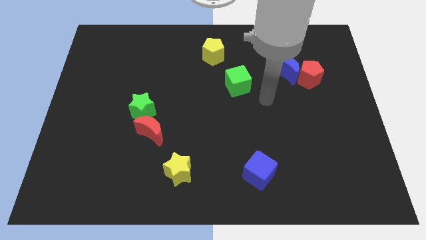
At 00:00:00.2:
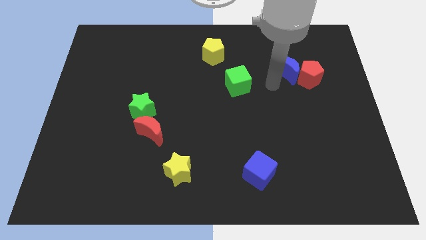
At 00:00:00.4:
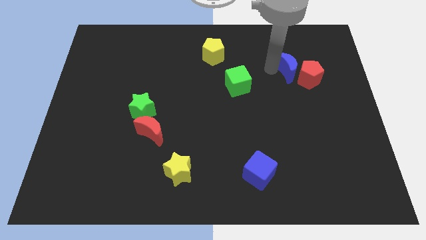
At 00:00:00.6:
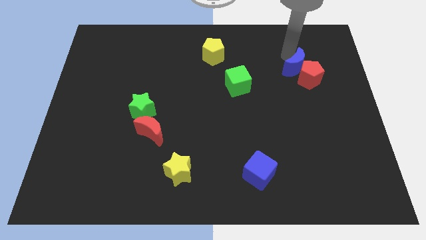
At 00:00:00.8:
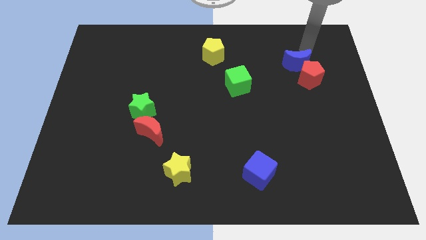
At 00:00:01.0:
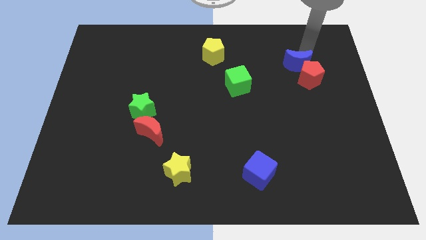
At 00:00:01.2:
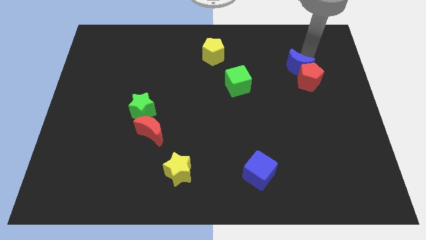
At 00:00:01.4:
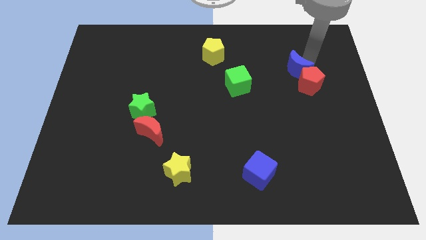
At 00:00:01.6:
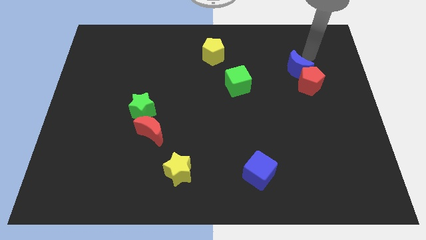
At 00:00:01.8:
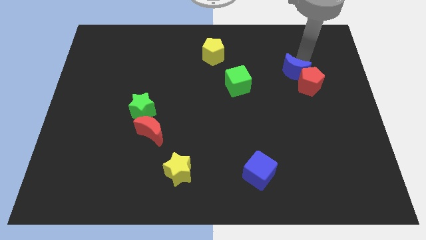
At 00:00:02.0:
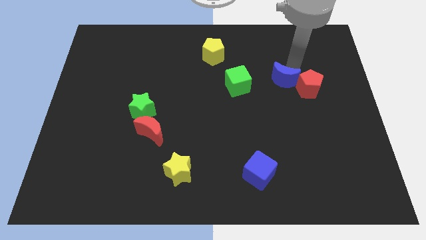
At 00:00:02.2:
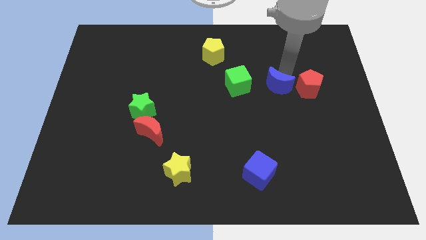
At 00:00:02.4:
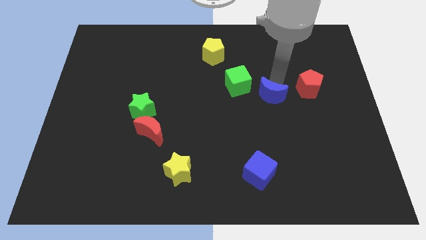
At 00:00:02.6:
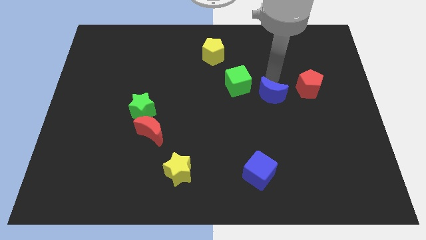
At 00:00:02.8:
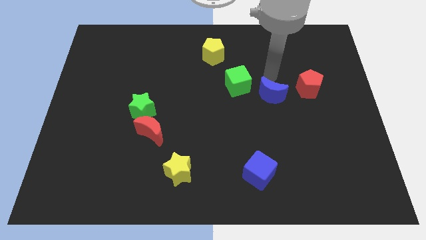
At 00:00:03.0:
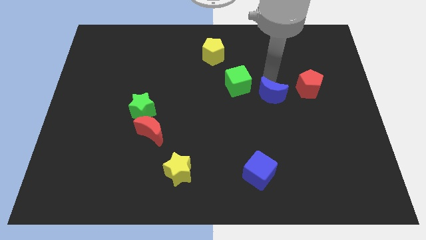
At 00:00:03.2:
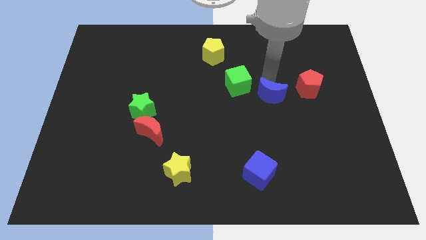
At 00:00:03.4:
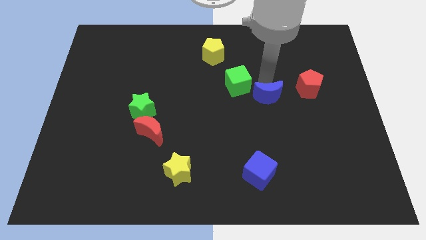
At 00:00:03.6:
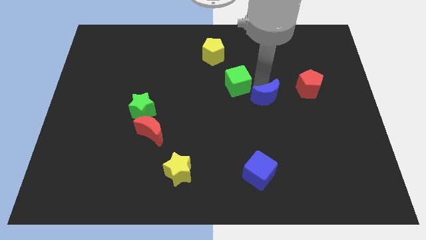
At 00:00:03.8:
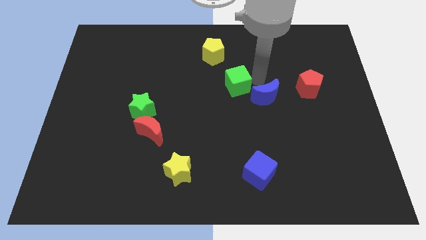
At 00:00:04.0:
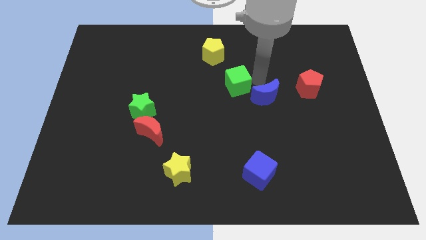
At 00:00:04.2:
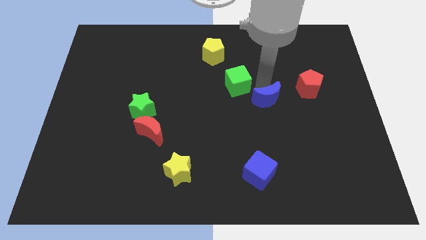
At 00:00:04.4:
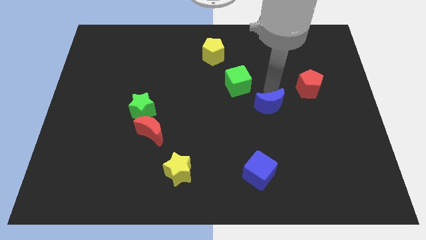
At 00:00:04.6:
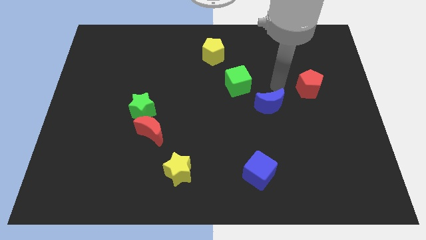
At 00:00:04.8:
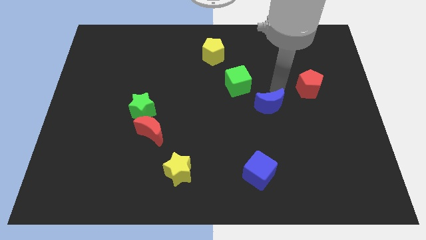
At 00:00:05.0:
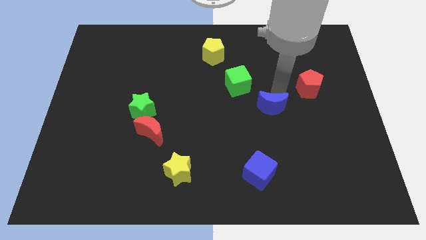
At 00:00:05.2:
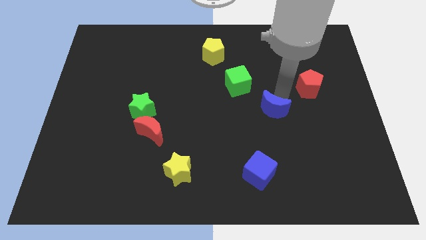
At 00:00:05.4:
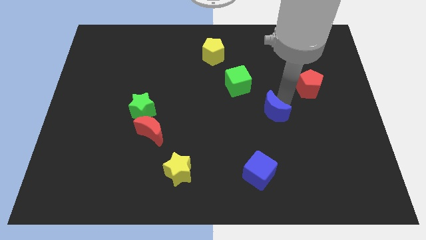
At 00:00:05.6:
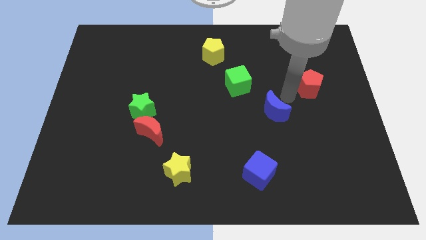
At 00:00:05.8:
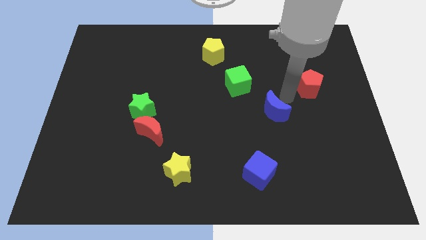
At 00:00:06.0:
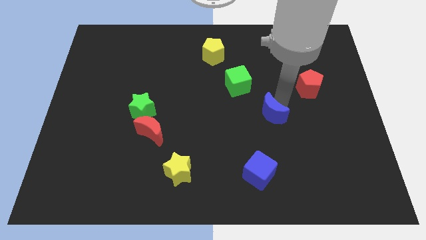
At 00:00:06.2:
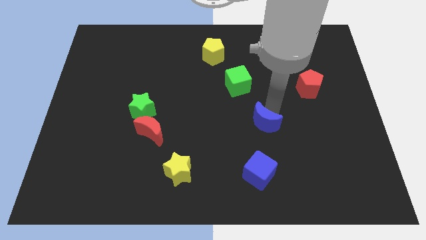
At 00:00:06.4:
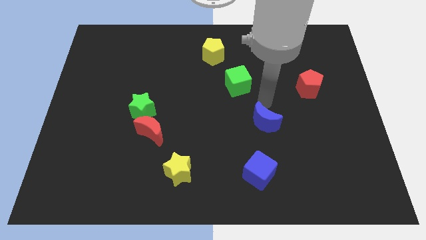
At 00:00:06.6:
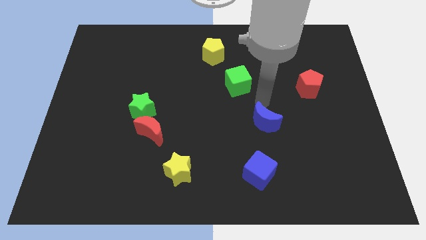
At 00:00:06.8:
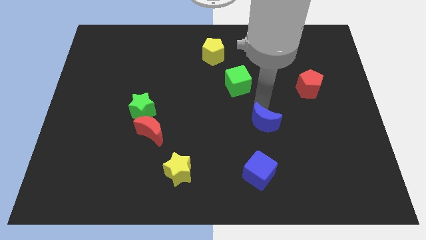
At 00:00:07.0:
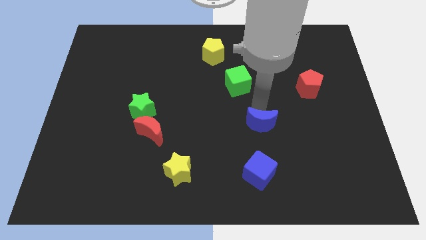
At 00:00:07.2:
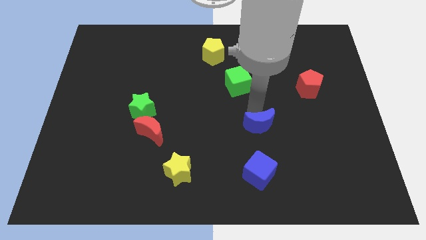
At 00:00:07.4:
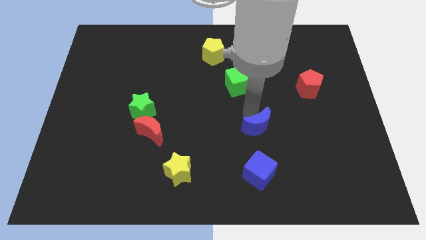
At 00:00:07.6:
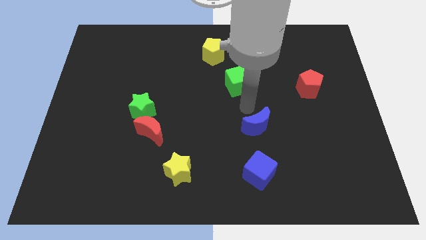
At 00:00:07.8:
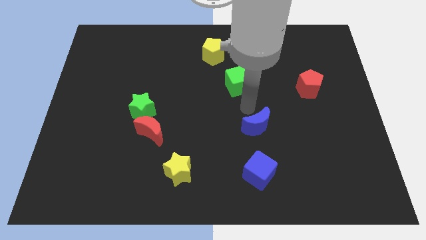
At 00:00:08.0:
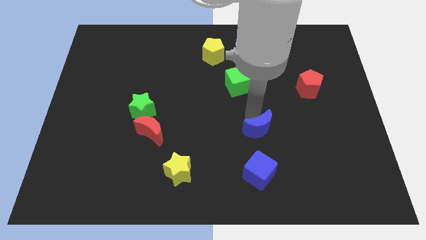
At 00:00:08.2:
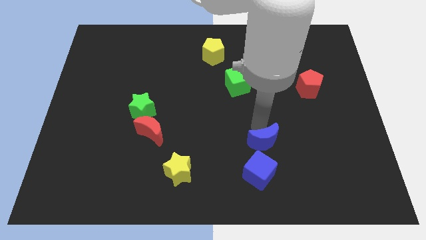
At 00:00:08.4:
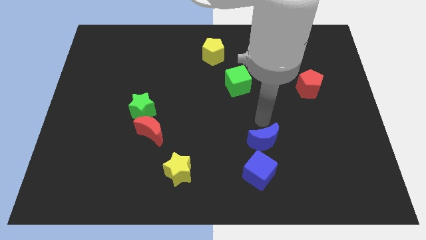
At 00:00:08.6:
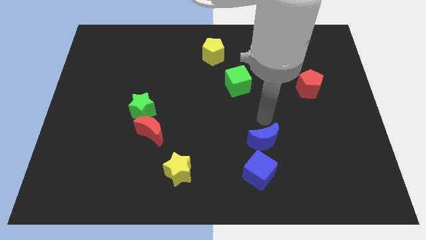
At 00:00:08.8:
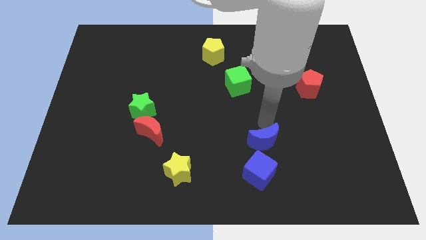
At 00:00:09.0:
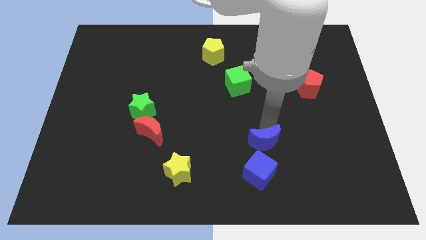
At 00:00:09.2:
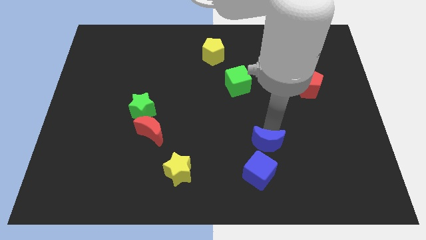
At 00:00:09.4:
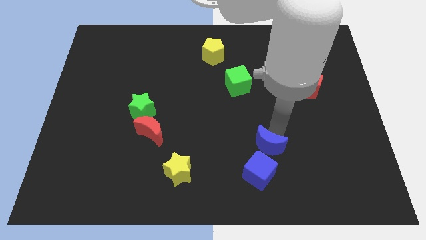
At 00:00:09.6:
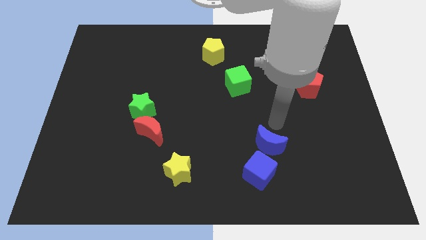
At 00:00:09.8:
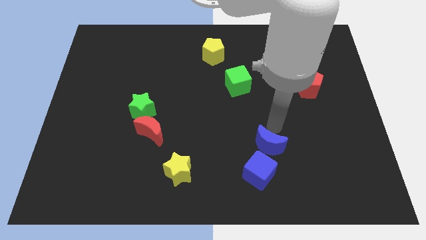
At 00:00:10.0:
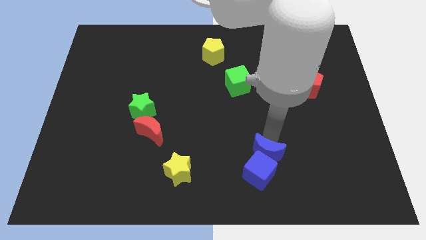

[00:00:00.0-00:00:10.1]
move the blue moon to the blue cube

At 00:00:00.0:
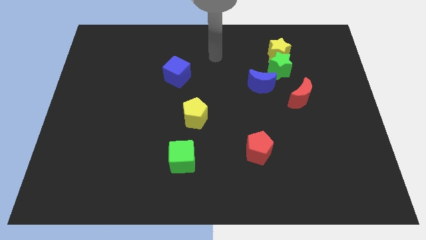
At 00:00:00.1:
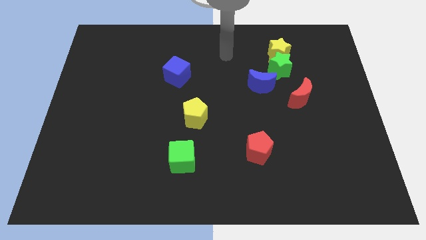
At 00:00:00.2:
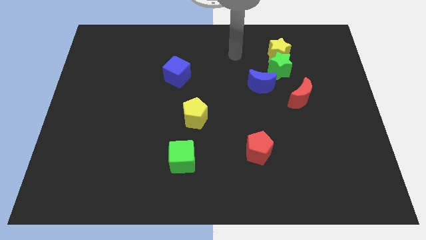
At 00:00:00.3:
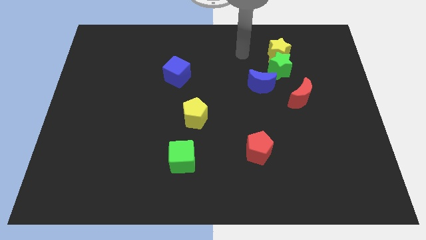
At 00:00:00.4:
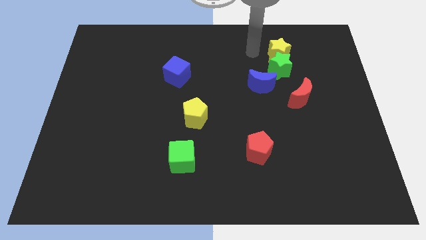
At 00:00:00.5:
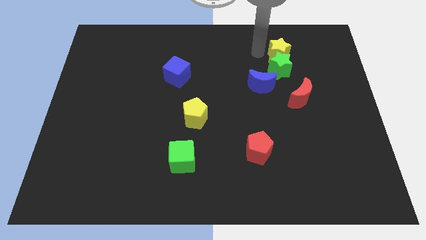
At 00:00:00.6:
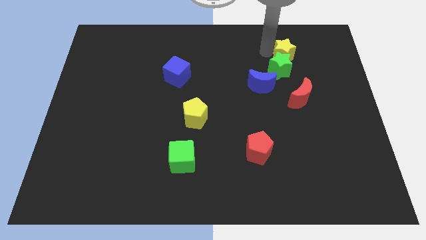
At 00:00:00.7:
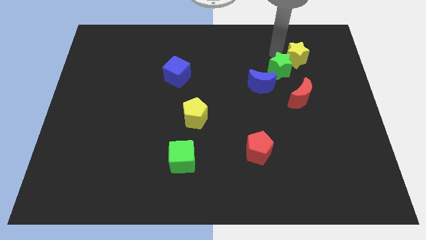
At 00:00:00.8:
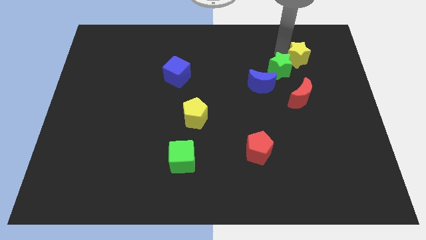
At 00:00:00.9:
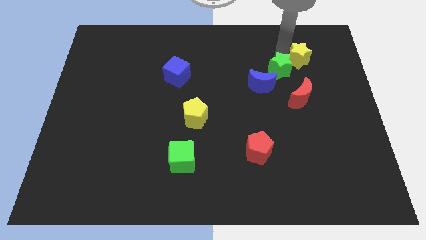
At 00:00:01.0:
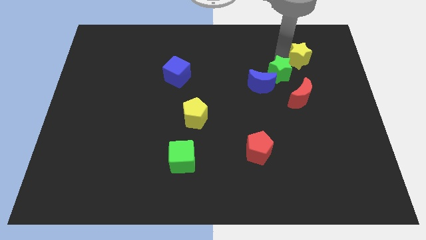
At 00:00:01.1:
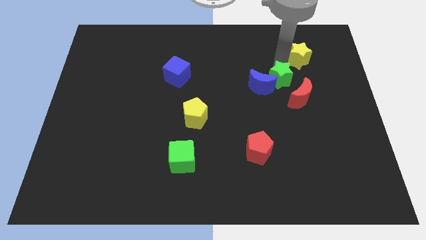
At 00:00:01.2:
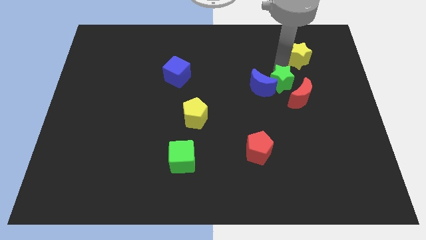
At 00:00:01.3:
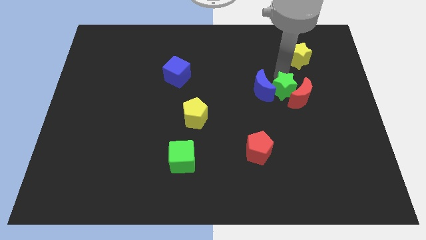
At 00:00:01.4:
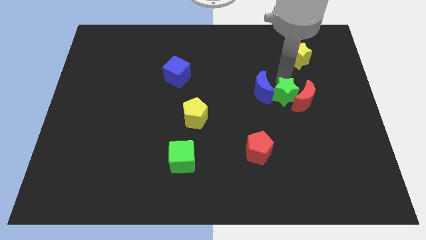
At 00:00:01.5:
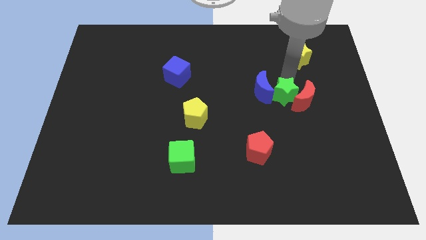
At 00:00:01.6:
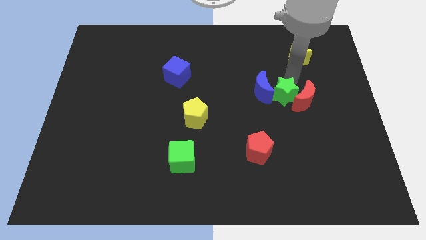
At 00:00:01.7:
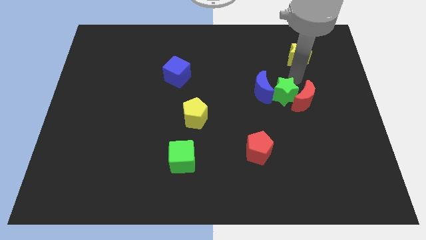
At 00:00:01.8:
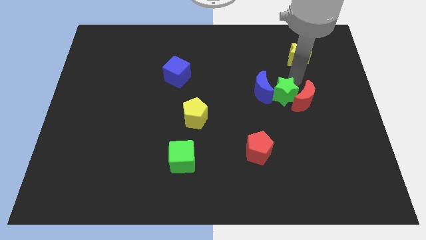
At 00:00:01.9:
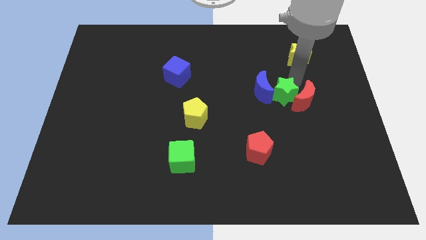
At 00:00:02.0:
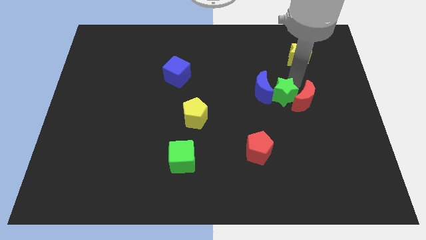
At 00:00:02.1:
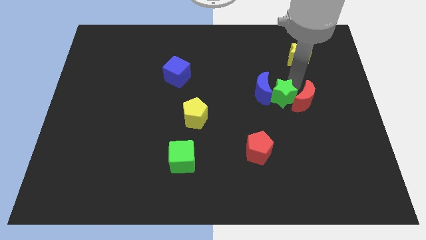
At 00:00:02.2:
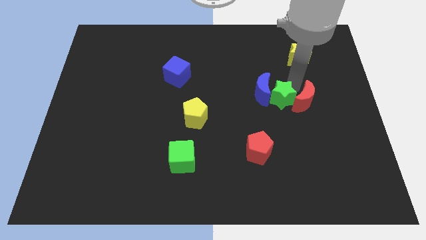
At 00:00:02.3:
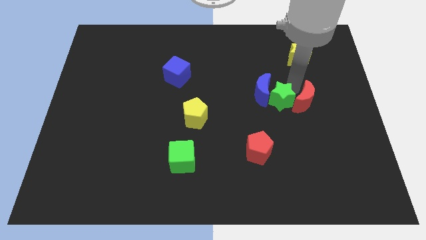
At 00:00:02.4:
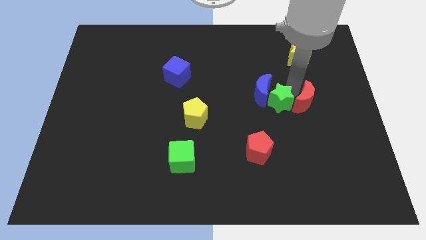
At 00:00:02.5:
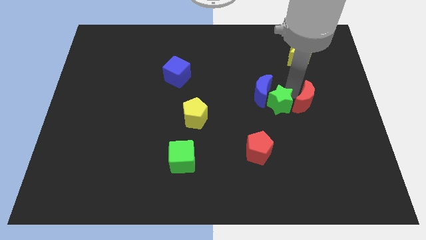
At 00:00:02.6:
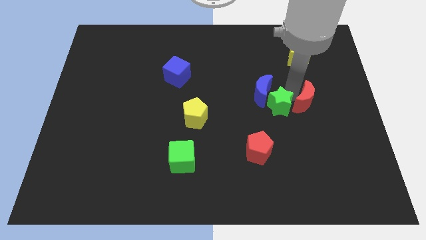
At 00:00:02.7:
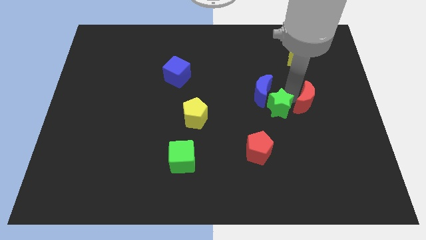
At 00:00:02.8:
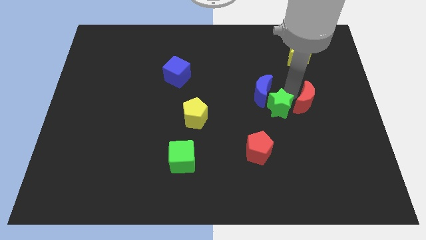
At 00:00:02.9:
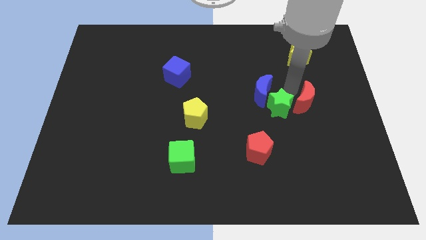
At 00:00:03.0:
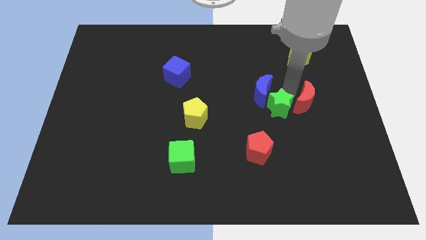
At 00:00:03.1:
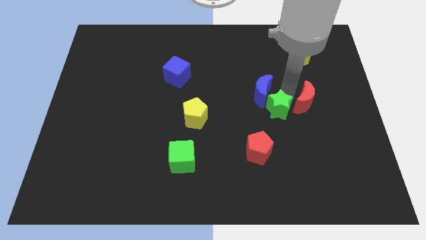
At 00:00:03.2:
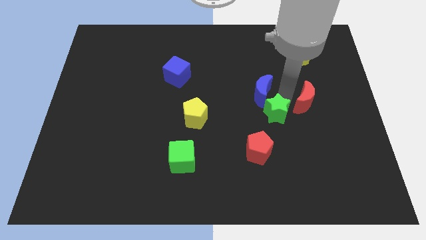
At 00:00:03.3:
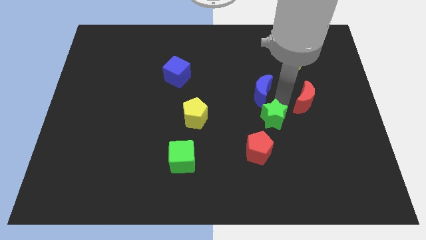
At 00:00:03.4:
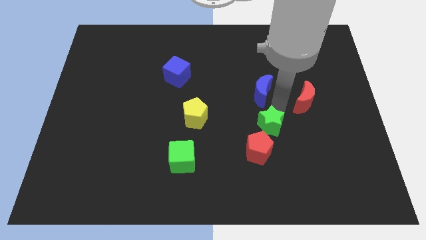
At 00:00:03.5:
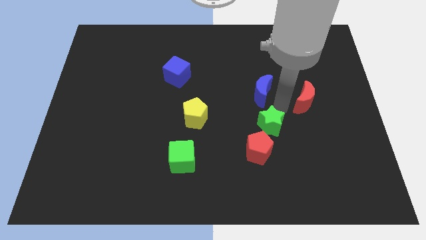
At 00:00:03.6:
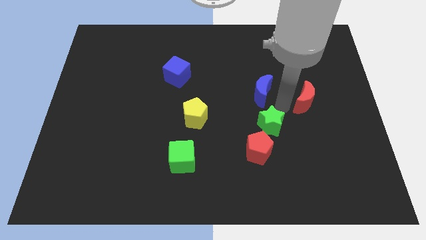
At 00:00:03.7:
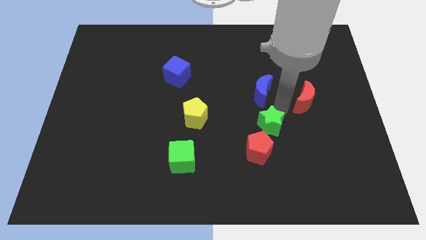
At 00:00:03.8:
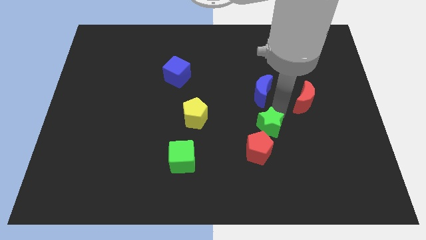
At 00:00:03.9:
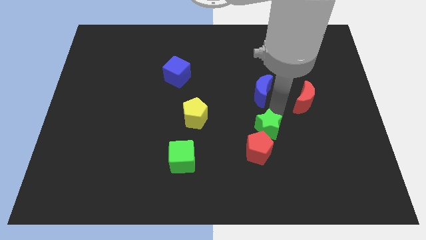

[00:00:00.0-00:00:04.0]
put the green star to the red pentagon
